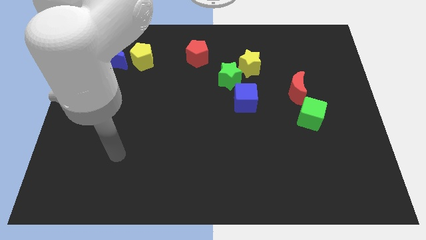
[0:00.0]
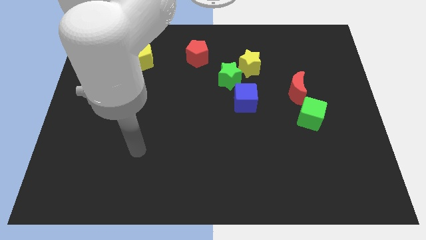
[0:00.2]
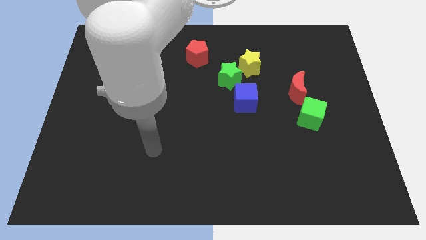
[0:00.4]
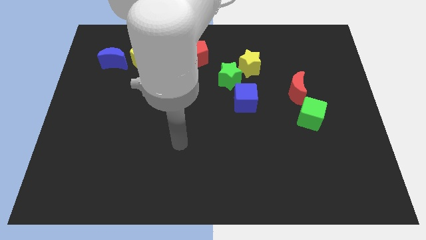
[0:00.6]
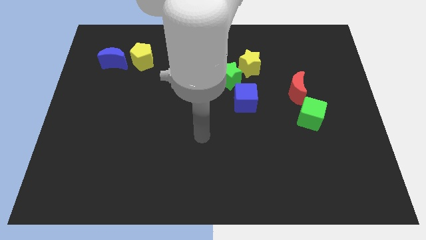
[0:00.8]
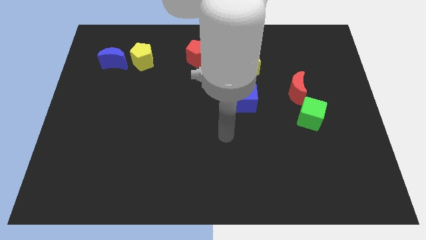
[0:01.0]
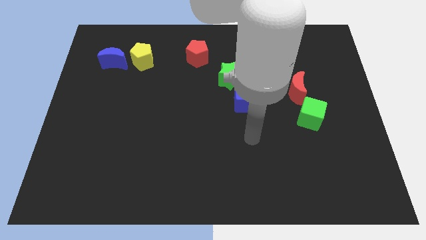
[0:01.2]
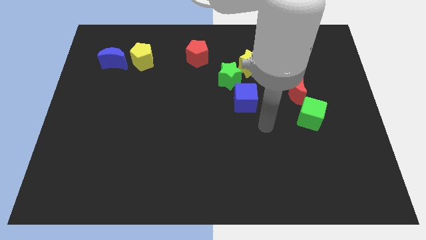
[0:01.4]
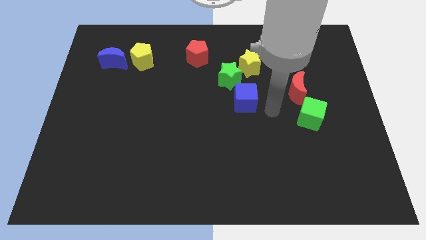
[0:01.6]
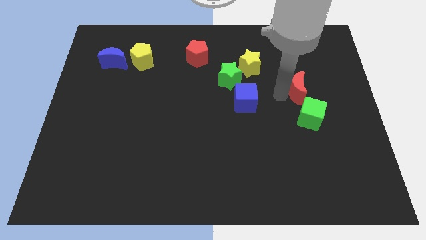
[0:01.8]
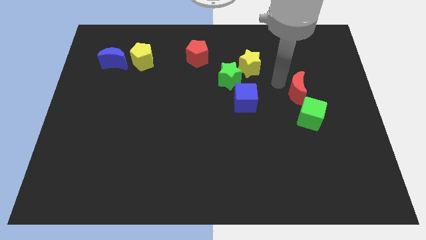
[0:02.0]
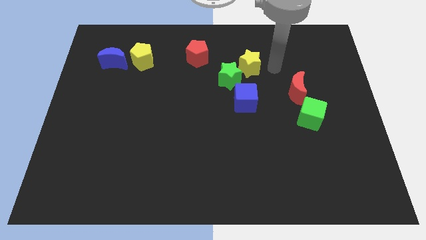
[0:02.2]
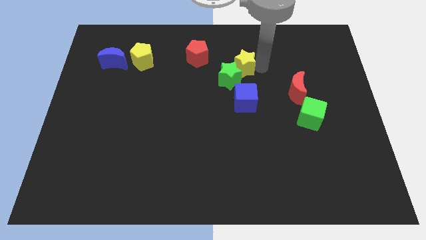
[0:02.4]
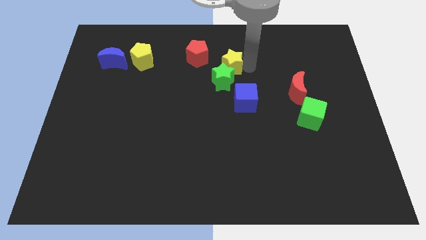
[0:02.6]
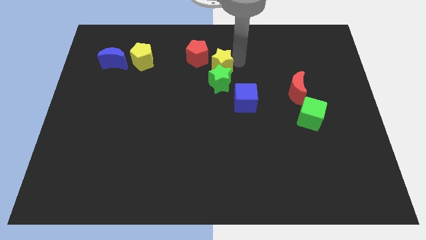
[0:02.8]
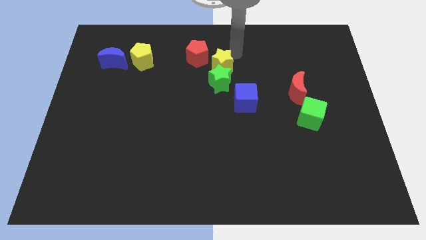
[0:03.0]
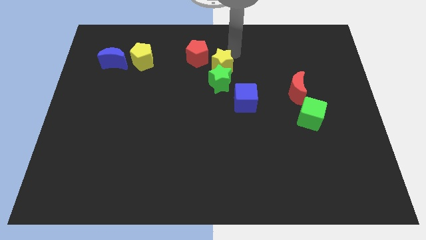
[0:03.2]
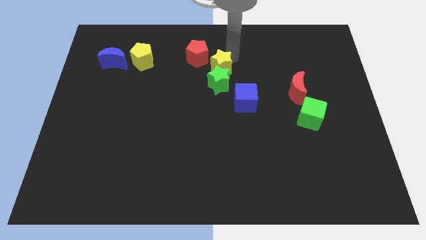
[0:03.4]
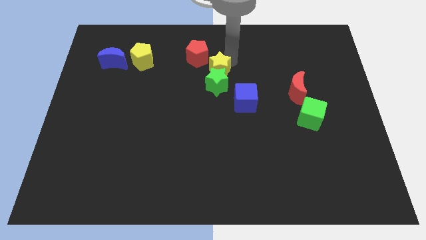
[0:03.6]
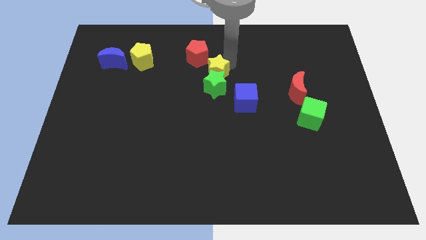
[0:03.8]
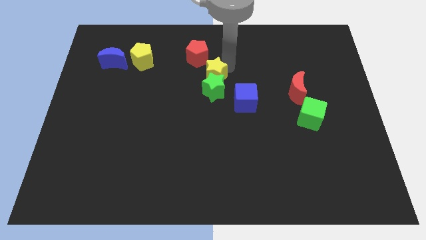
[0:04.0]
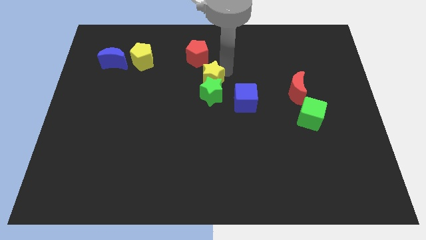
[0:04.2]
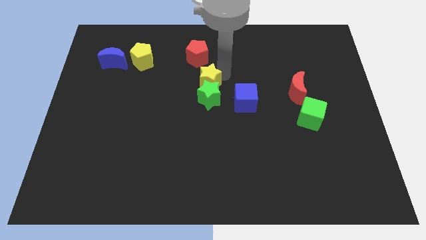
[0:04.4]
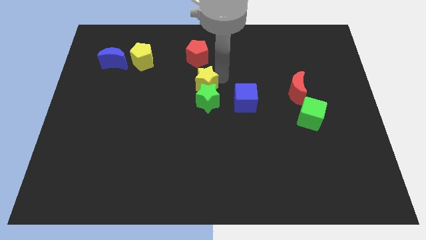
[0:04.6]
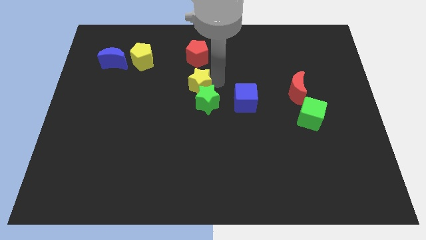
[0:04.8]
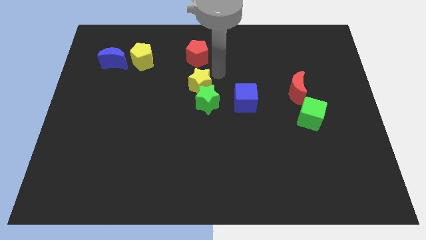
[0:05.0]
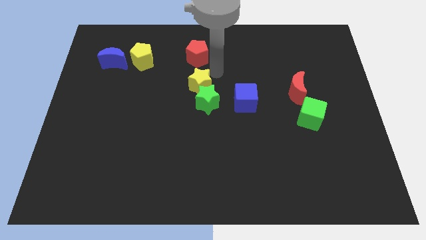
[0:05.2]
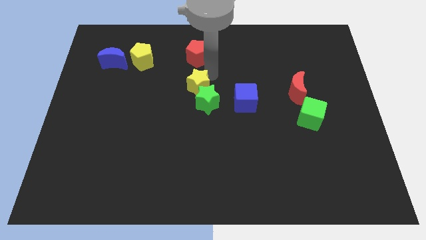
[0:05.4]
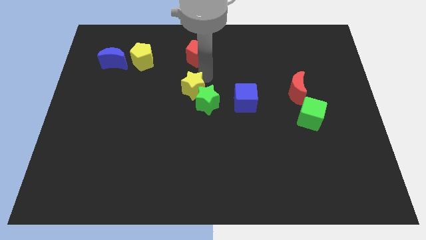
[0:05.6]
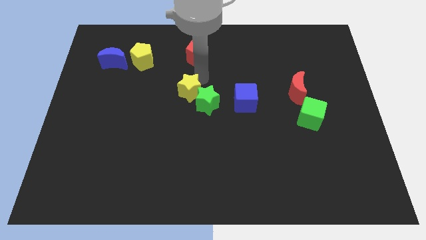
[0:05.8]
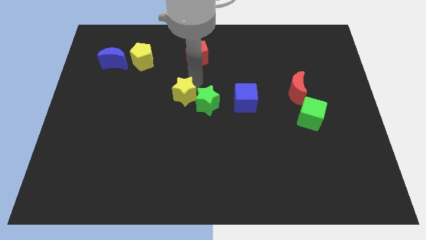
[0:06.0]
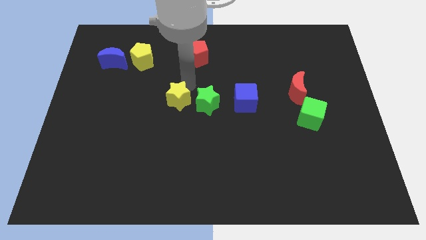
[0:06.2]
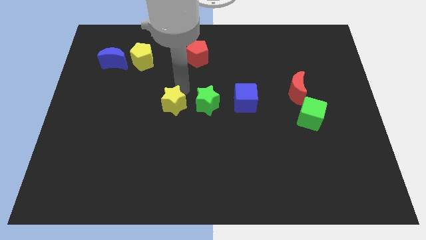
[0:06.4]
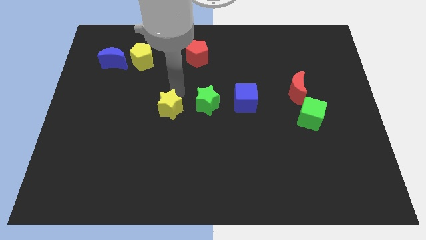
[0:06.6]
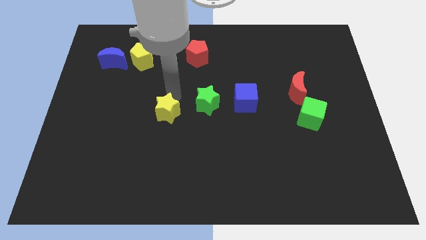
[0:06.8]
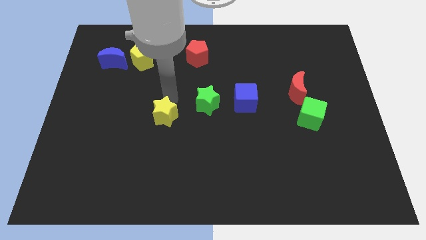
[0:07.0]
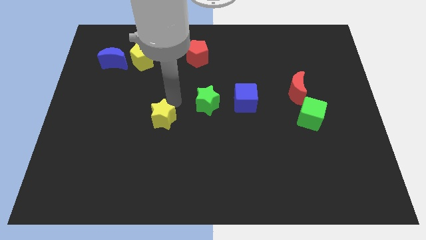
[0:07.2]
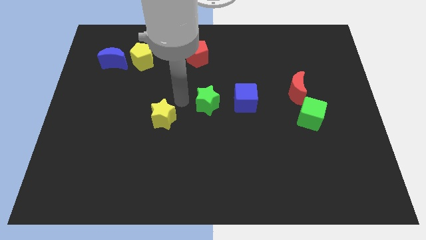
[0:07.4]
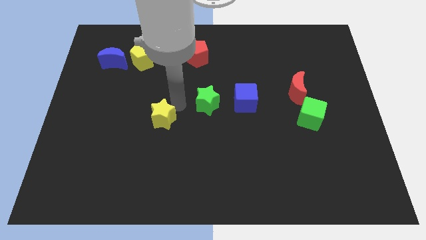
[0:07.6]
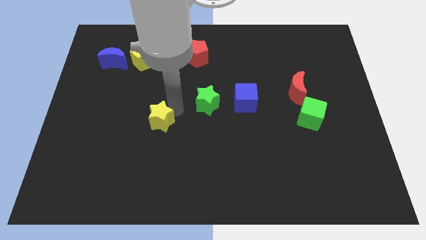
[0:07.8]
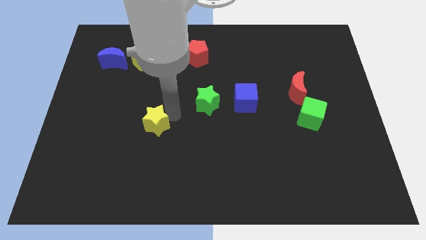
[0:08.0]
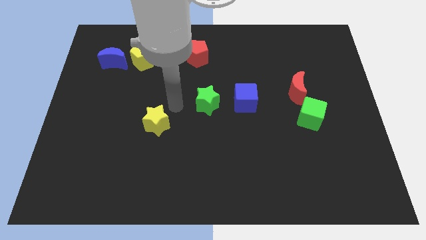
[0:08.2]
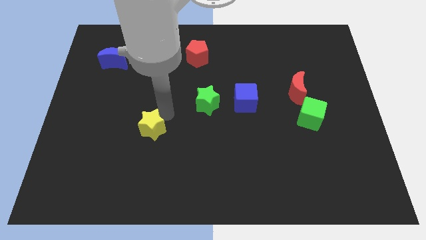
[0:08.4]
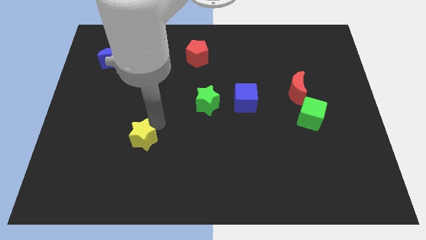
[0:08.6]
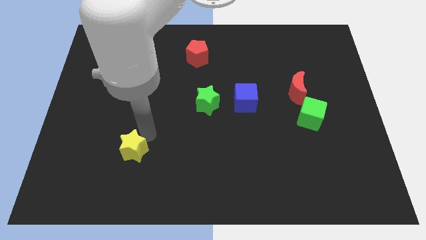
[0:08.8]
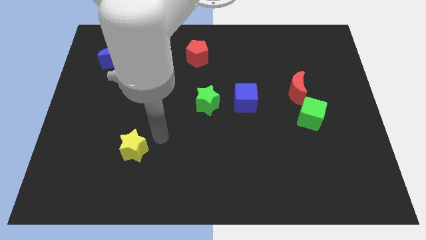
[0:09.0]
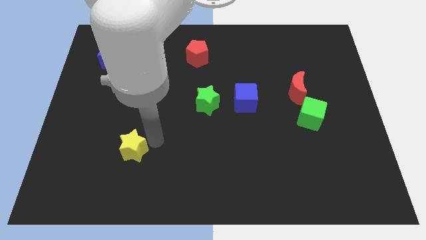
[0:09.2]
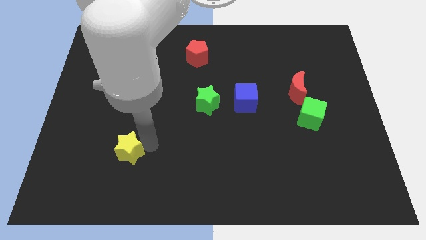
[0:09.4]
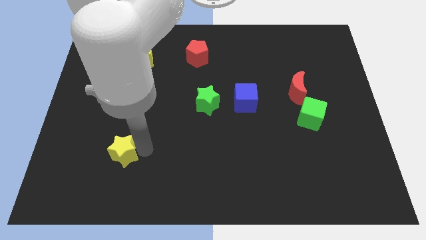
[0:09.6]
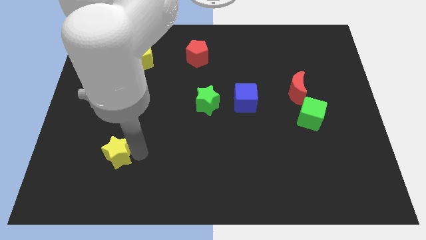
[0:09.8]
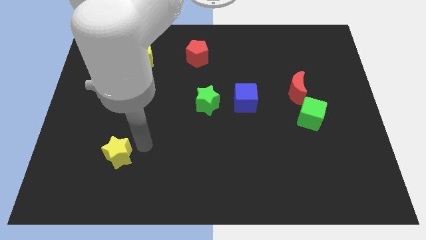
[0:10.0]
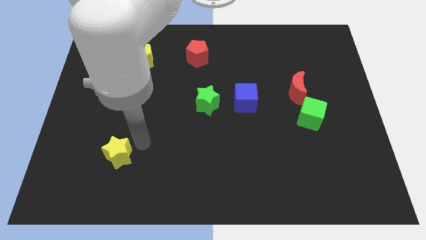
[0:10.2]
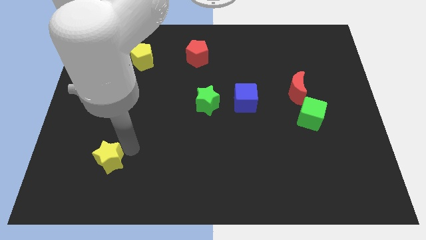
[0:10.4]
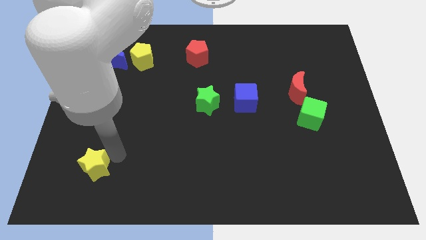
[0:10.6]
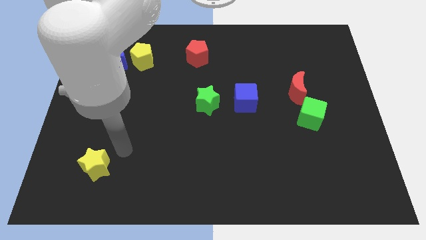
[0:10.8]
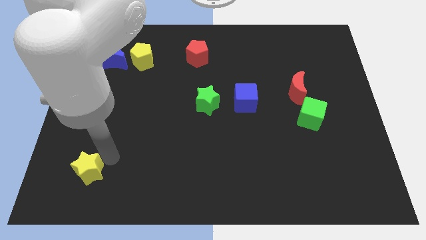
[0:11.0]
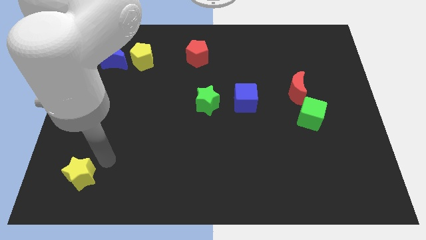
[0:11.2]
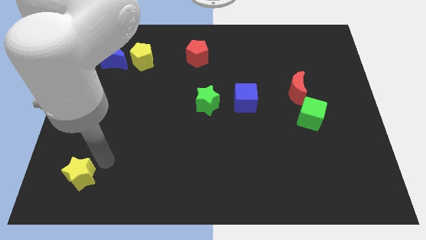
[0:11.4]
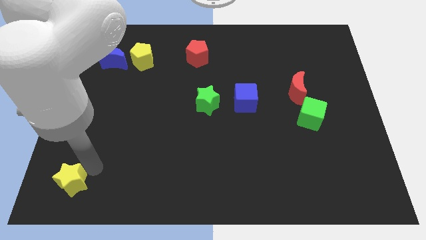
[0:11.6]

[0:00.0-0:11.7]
put the yellow star to the bottom left of the board

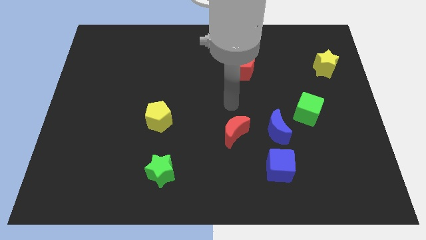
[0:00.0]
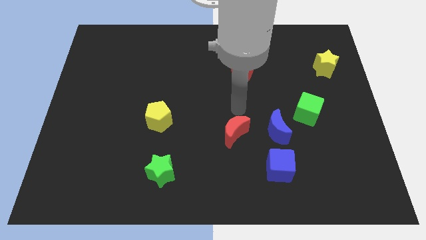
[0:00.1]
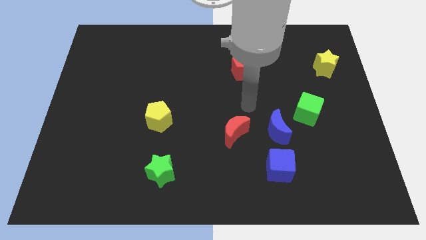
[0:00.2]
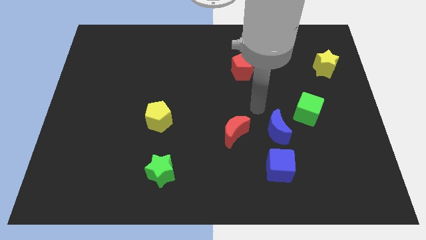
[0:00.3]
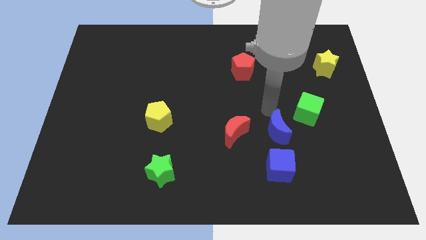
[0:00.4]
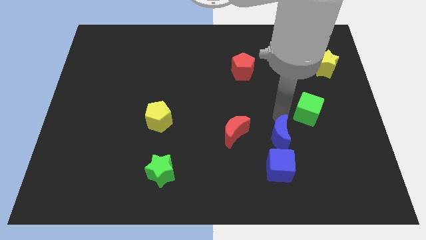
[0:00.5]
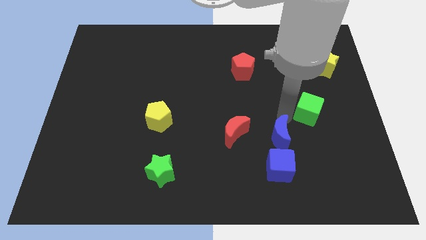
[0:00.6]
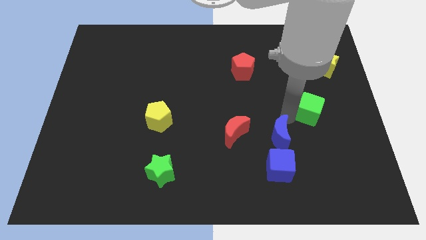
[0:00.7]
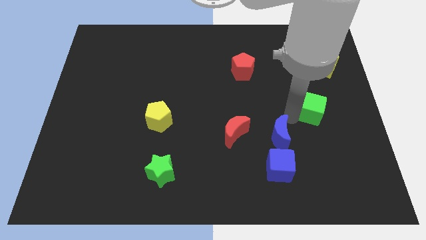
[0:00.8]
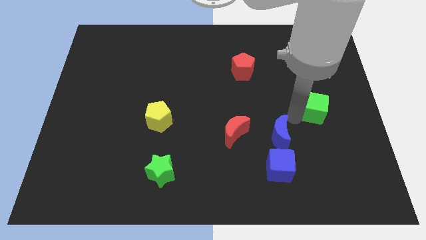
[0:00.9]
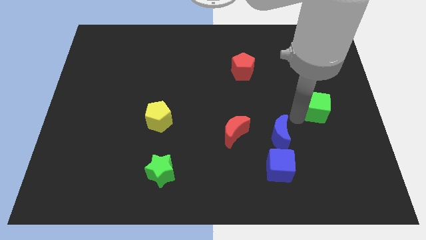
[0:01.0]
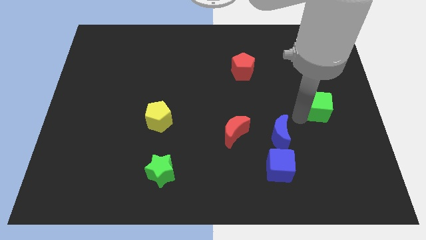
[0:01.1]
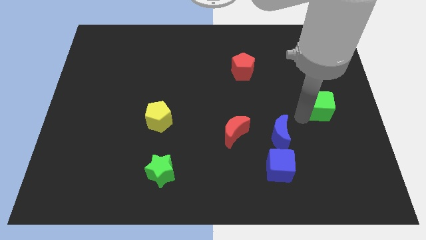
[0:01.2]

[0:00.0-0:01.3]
put the green cube to the right side
